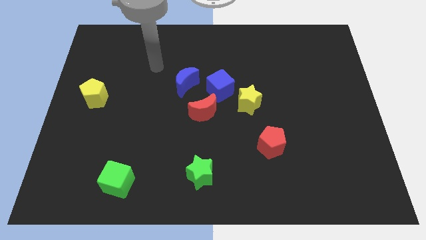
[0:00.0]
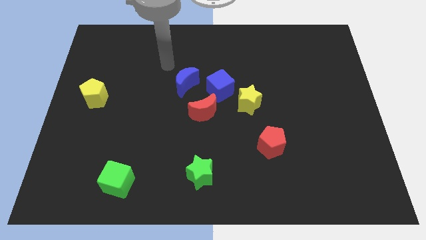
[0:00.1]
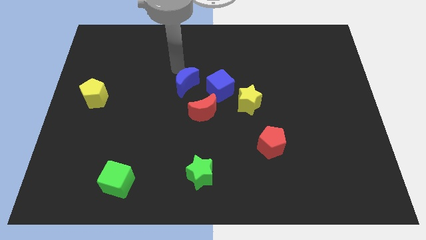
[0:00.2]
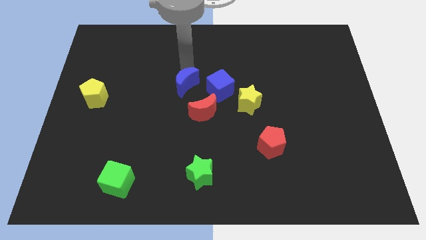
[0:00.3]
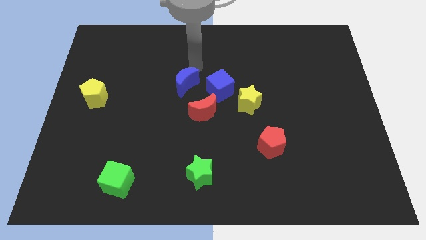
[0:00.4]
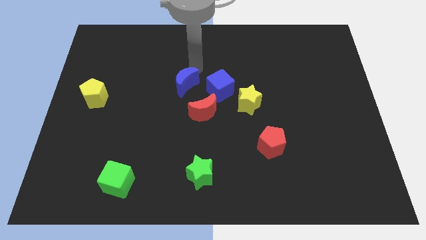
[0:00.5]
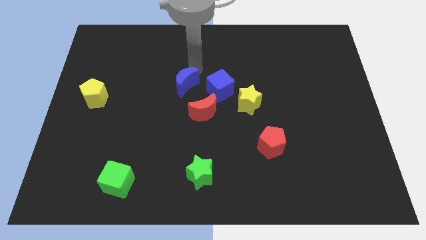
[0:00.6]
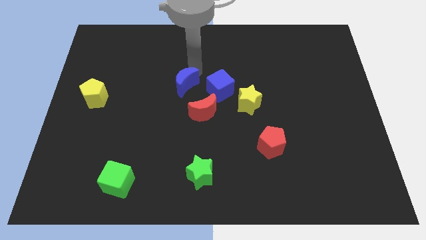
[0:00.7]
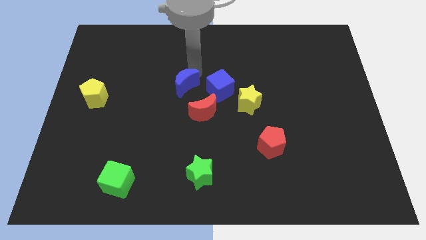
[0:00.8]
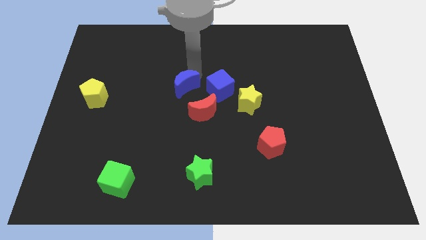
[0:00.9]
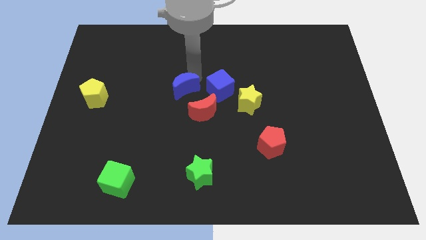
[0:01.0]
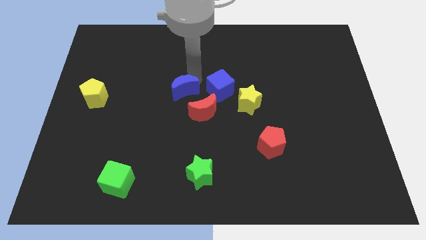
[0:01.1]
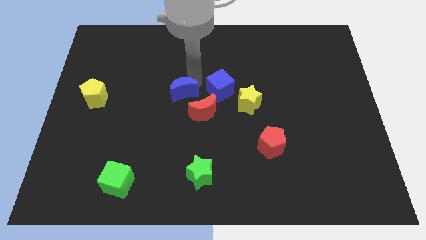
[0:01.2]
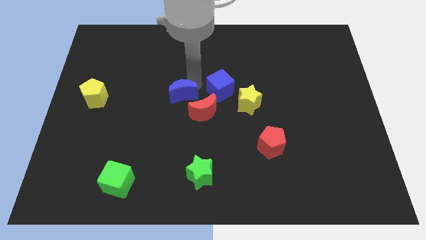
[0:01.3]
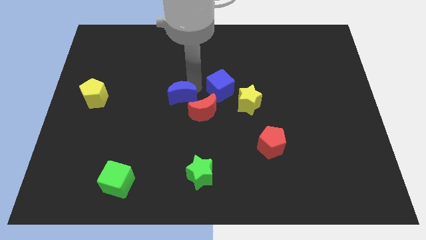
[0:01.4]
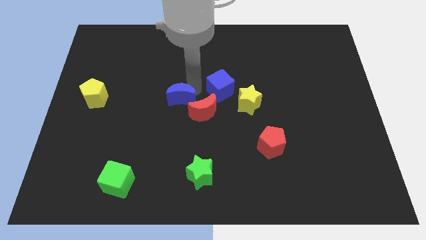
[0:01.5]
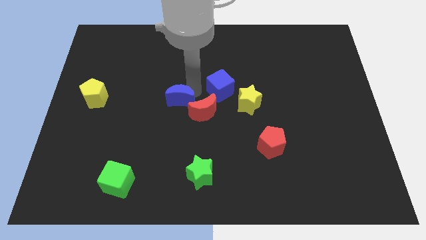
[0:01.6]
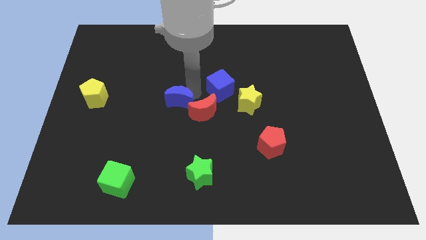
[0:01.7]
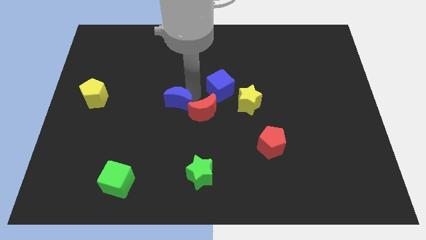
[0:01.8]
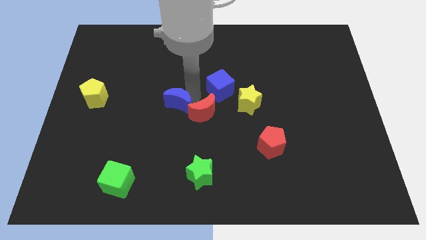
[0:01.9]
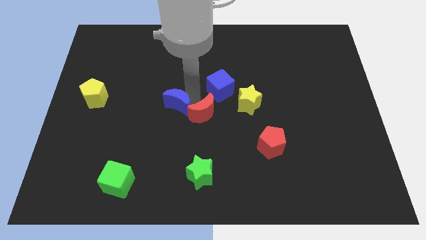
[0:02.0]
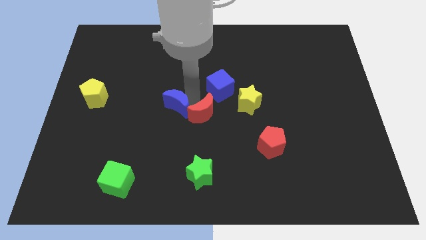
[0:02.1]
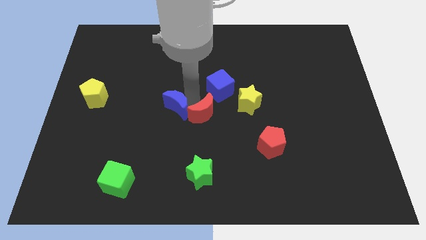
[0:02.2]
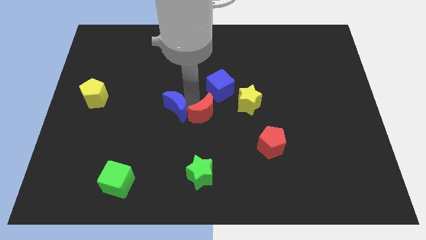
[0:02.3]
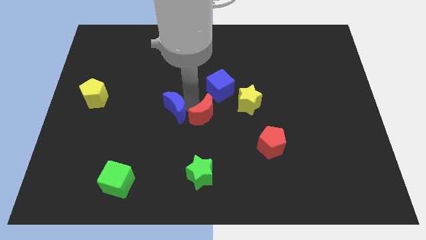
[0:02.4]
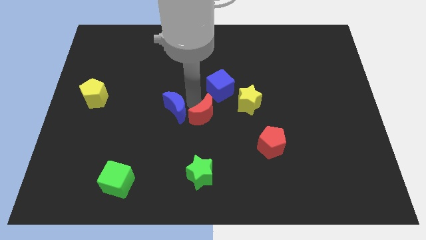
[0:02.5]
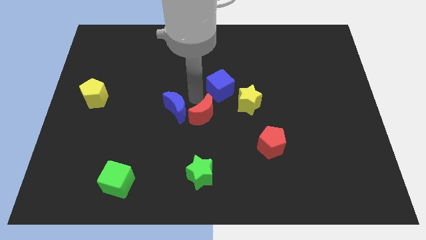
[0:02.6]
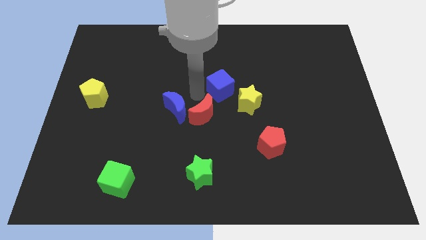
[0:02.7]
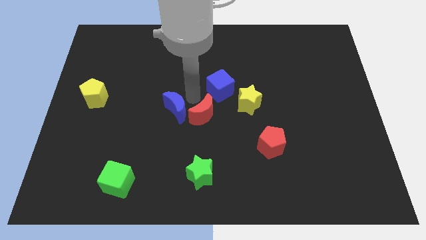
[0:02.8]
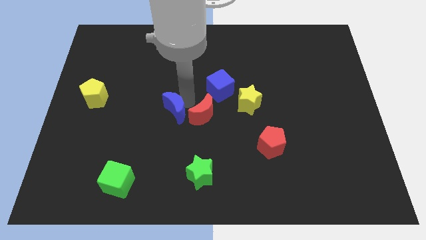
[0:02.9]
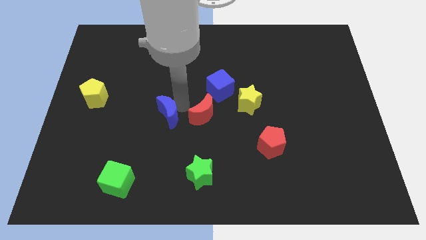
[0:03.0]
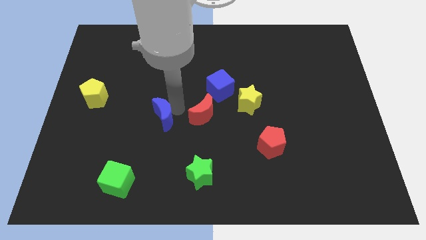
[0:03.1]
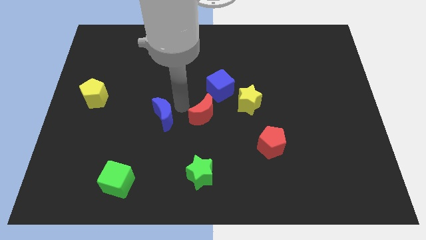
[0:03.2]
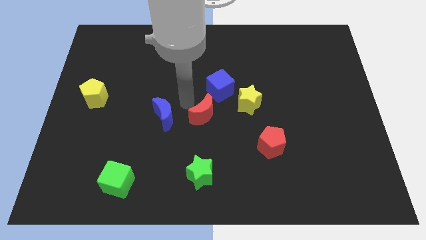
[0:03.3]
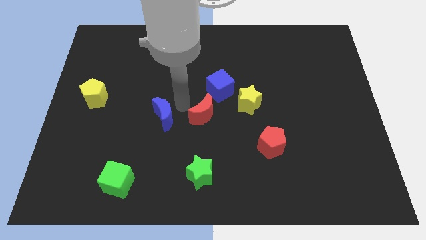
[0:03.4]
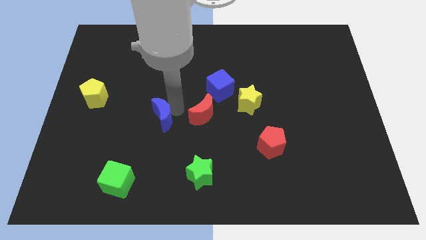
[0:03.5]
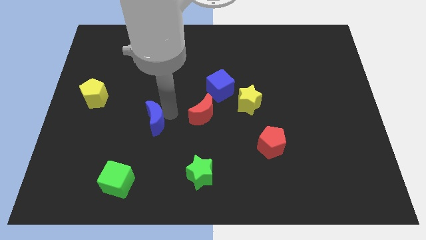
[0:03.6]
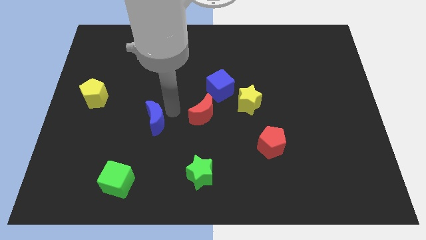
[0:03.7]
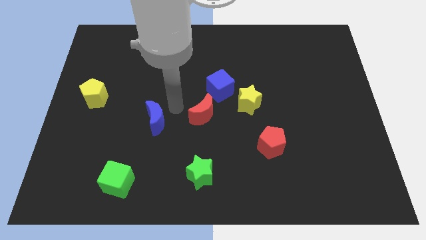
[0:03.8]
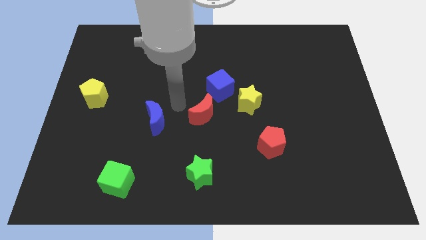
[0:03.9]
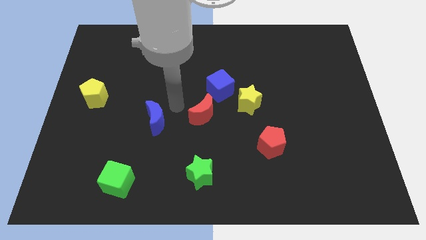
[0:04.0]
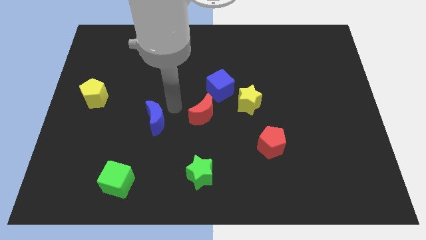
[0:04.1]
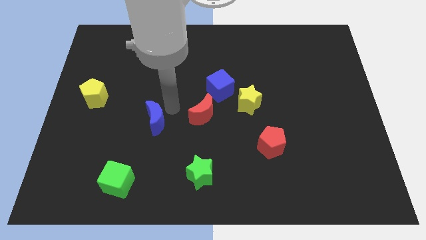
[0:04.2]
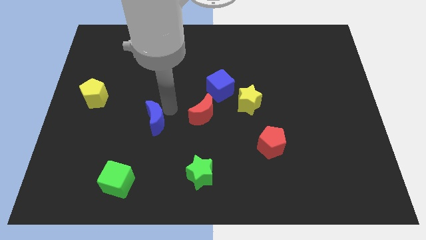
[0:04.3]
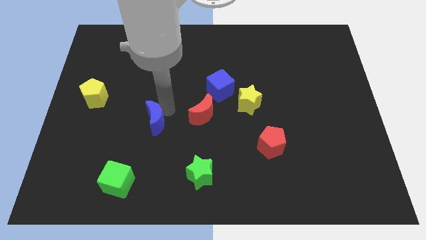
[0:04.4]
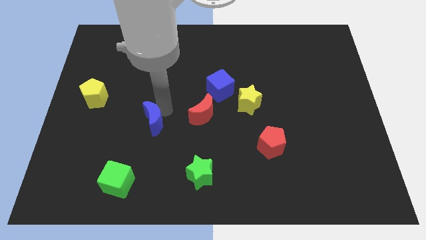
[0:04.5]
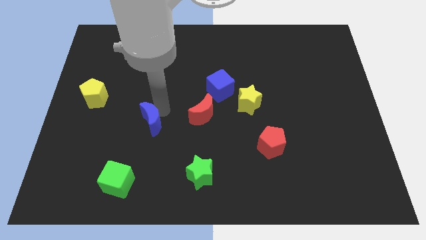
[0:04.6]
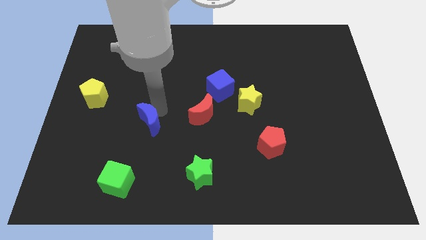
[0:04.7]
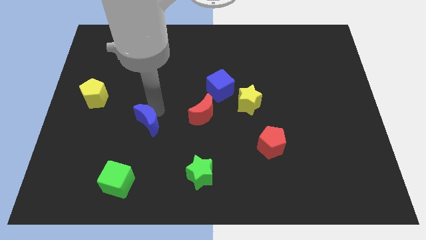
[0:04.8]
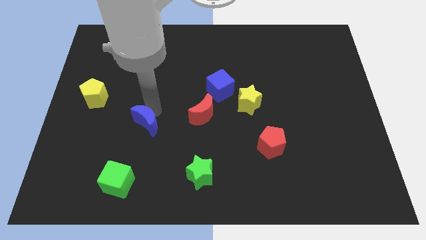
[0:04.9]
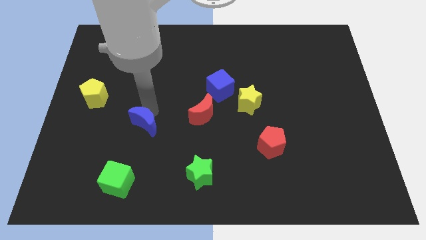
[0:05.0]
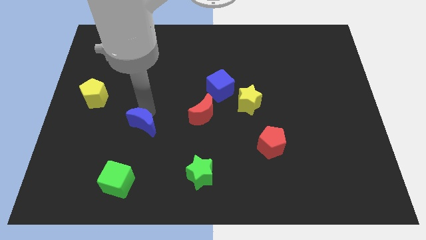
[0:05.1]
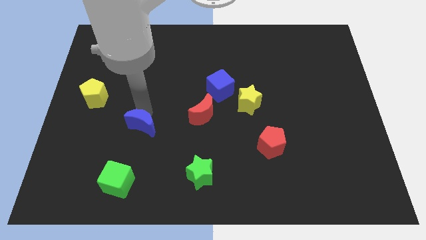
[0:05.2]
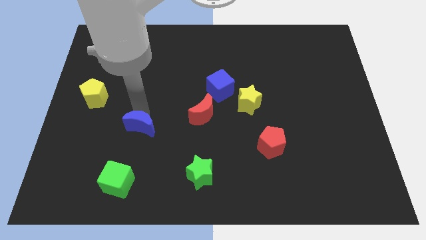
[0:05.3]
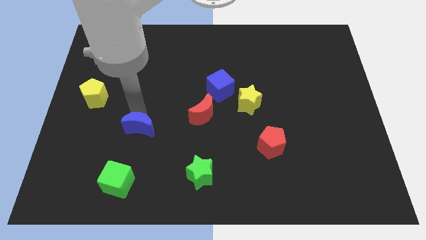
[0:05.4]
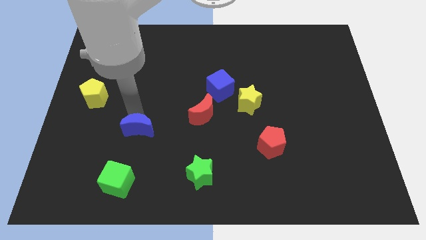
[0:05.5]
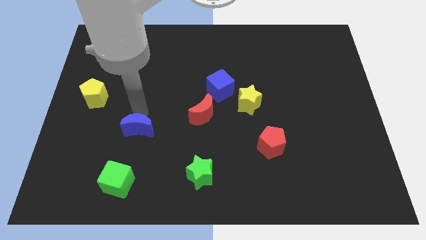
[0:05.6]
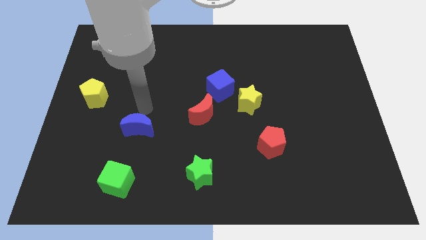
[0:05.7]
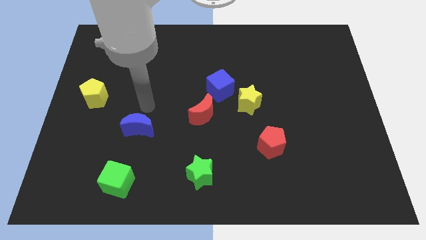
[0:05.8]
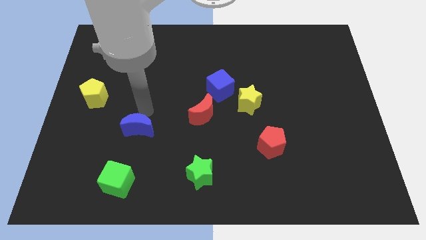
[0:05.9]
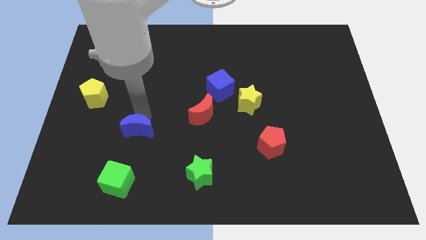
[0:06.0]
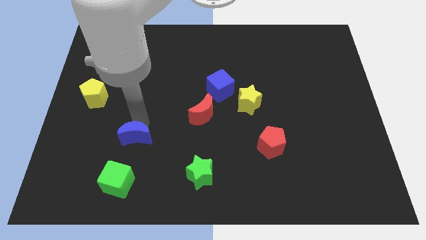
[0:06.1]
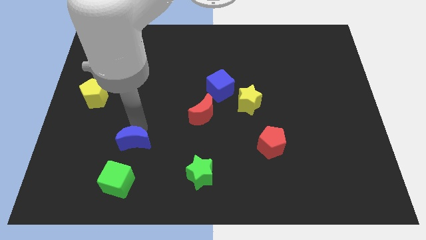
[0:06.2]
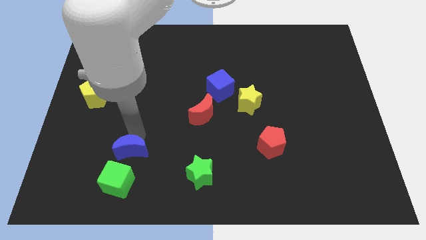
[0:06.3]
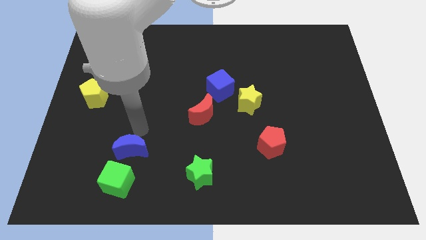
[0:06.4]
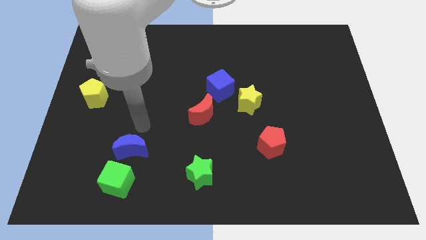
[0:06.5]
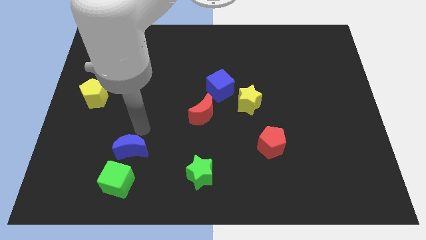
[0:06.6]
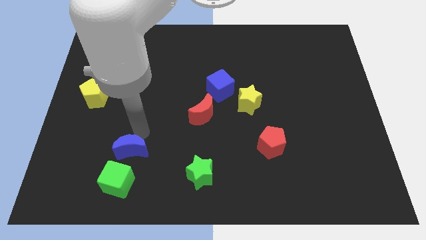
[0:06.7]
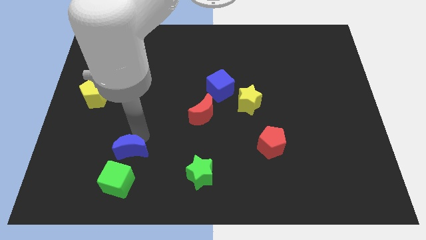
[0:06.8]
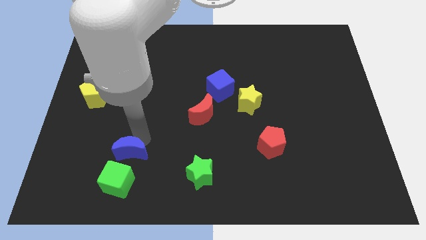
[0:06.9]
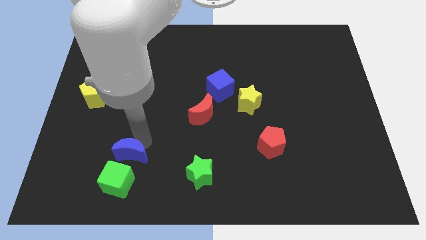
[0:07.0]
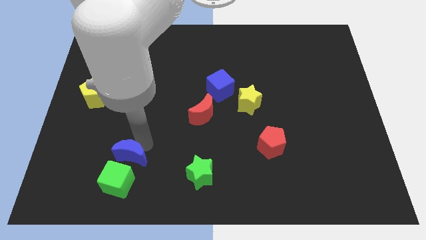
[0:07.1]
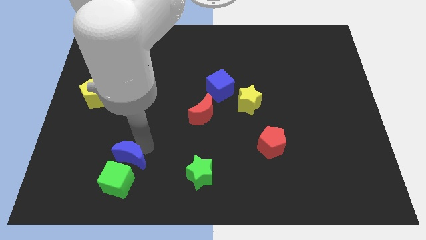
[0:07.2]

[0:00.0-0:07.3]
put the blue moon to the green cube

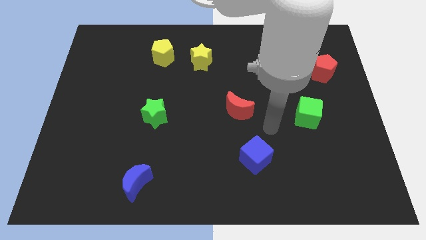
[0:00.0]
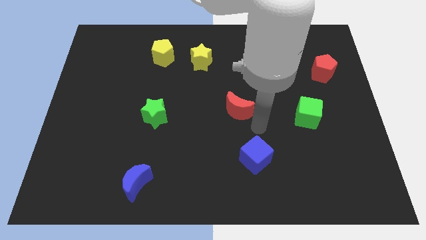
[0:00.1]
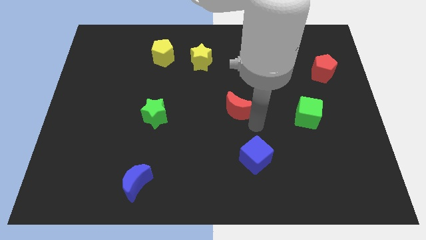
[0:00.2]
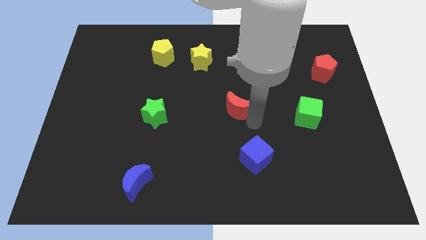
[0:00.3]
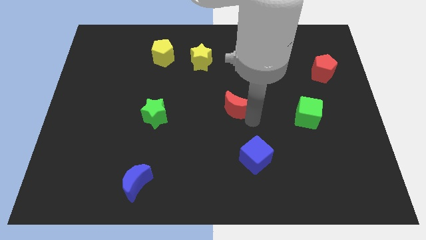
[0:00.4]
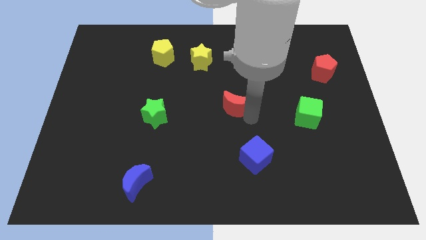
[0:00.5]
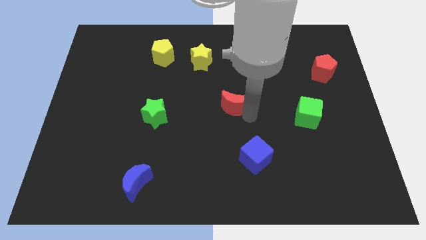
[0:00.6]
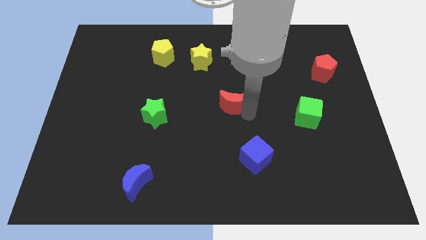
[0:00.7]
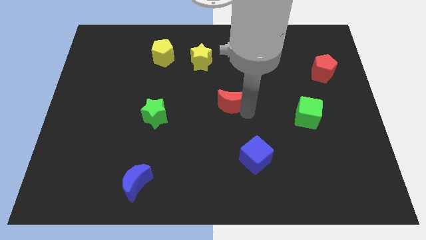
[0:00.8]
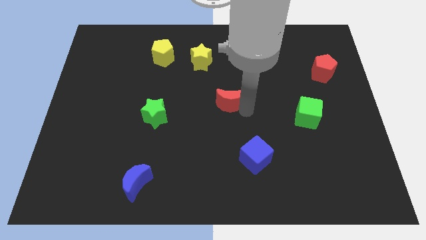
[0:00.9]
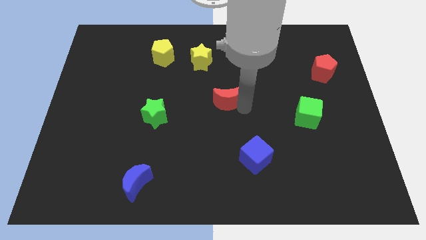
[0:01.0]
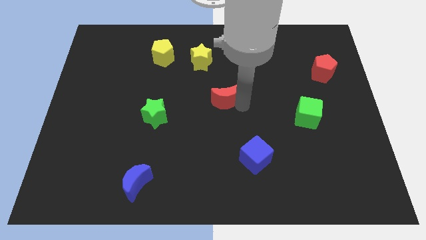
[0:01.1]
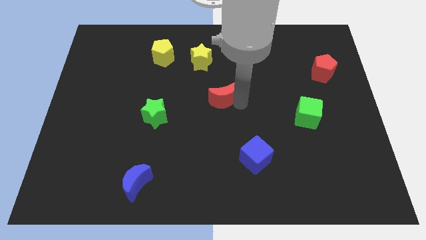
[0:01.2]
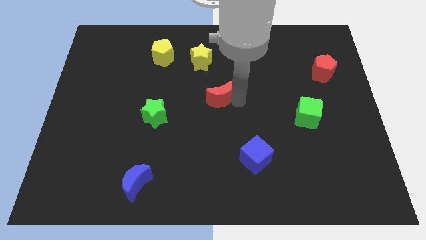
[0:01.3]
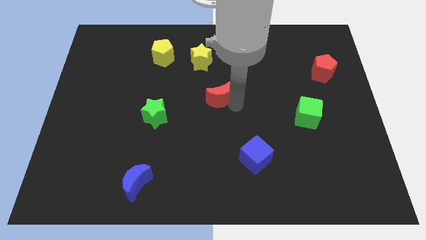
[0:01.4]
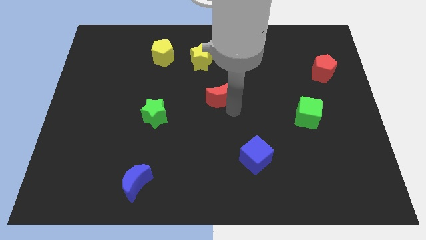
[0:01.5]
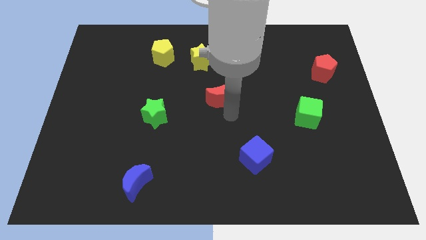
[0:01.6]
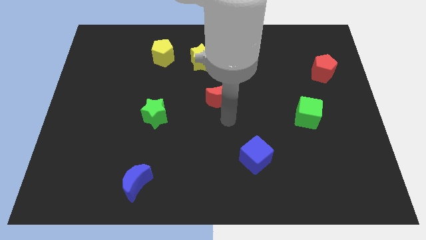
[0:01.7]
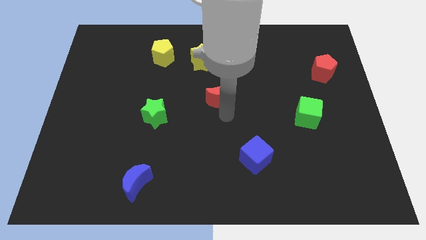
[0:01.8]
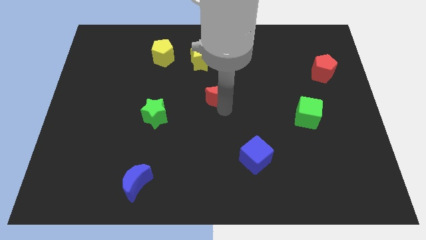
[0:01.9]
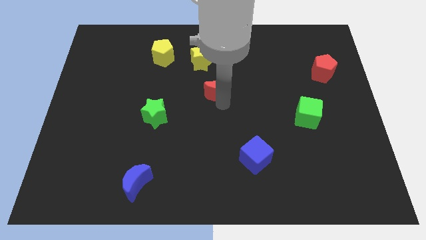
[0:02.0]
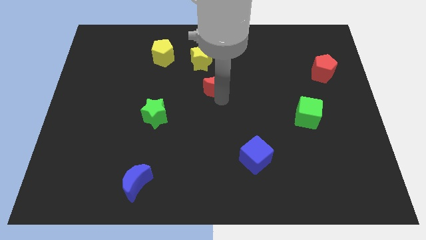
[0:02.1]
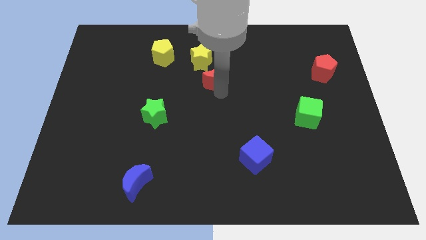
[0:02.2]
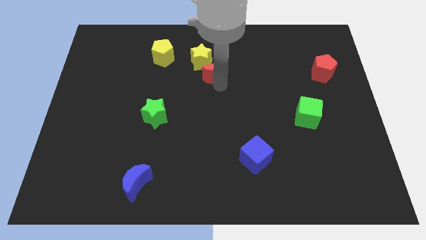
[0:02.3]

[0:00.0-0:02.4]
push the red moon close to the yellow star
